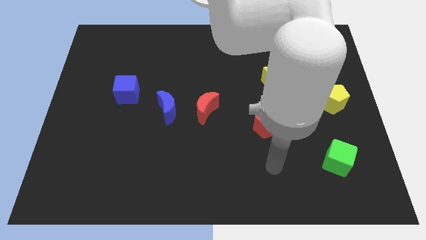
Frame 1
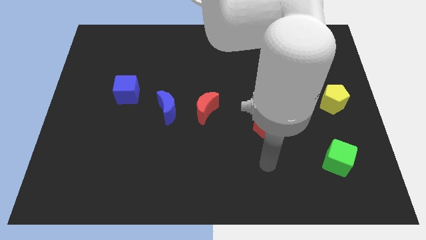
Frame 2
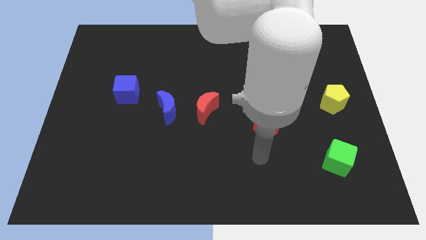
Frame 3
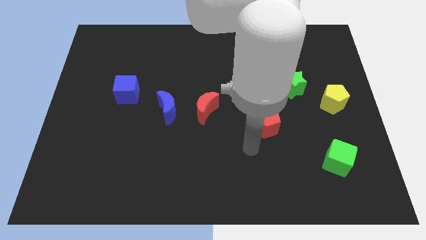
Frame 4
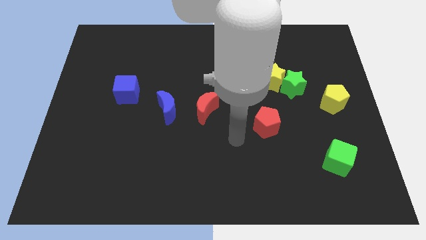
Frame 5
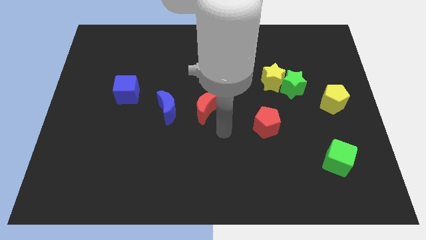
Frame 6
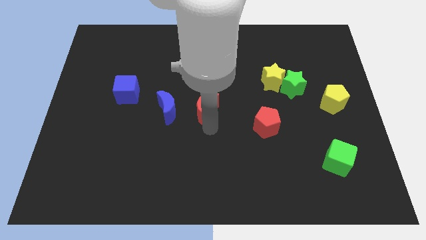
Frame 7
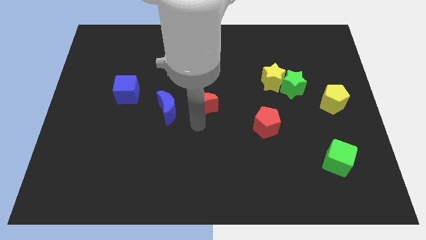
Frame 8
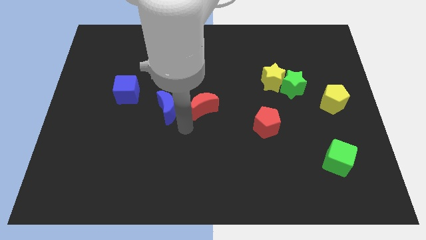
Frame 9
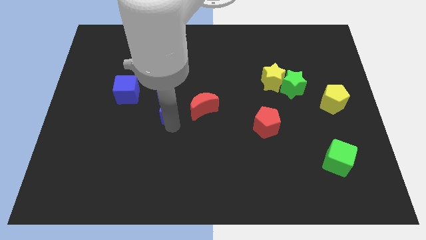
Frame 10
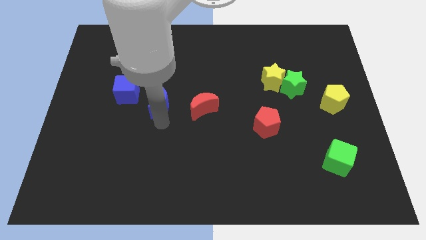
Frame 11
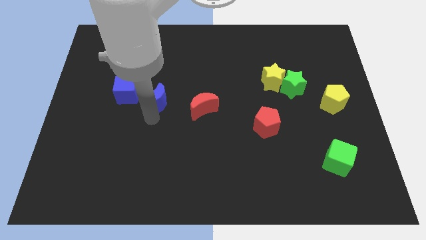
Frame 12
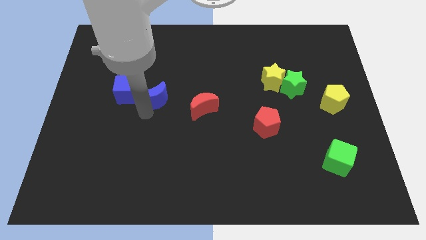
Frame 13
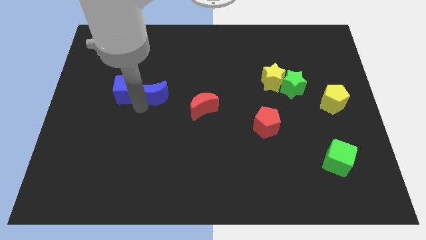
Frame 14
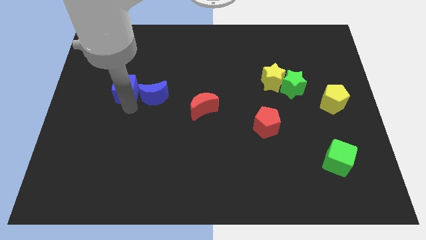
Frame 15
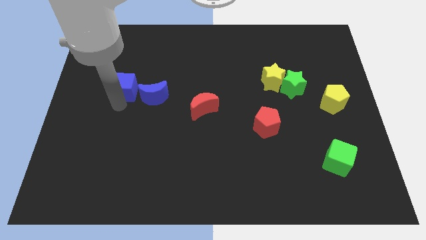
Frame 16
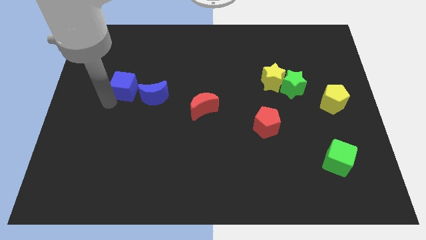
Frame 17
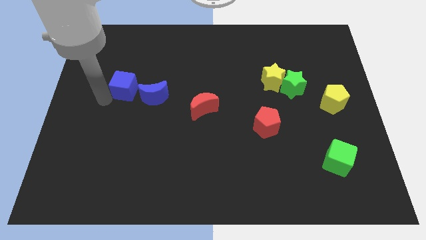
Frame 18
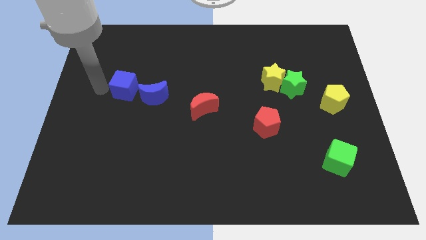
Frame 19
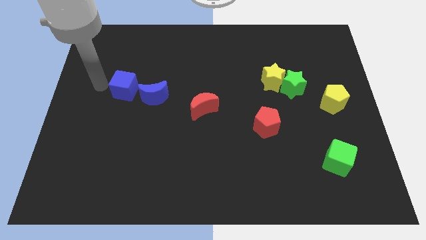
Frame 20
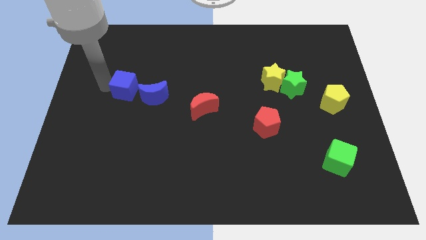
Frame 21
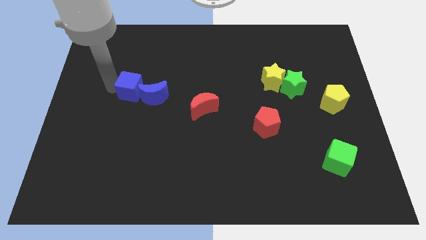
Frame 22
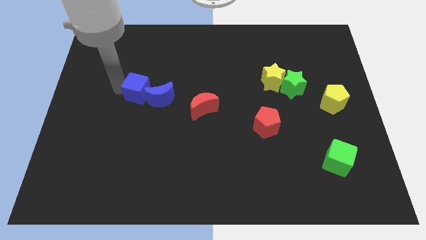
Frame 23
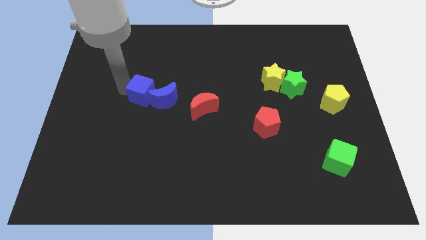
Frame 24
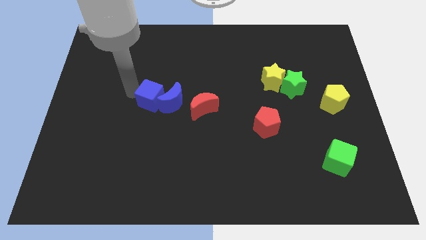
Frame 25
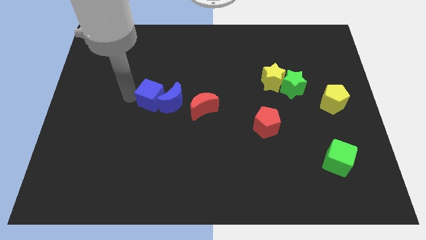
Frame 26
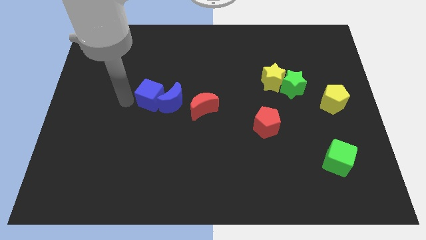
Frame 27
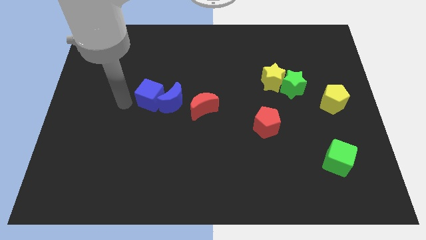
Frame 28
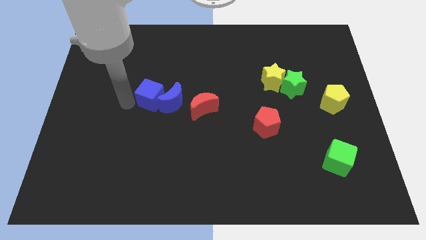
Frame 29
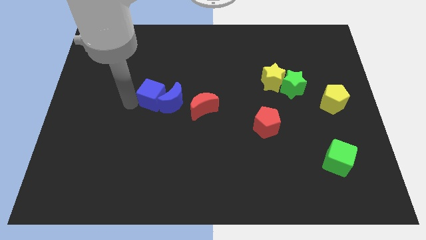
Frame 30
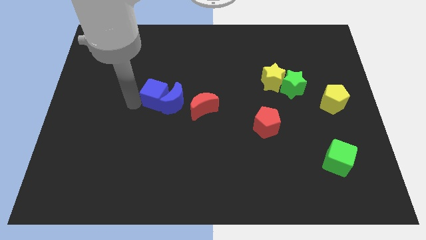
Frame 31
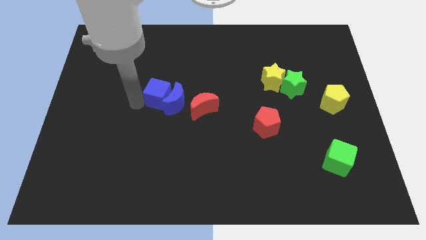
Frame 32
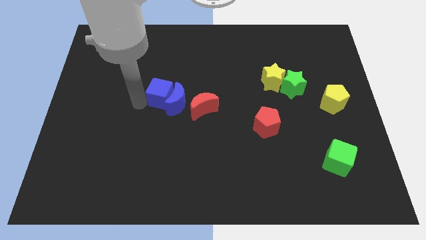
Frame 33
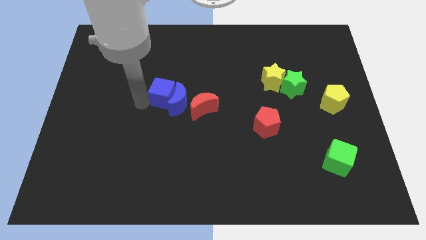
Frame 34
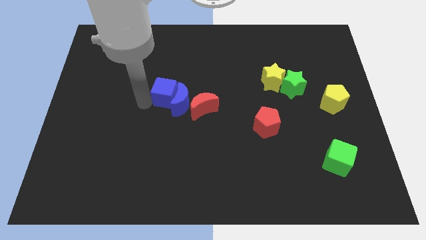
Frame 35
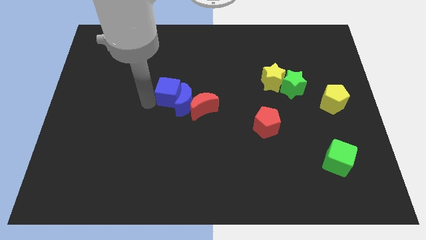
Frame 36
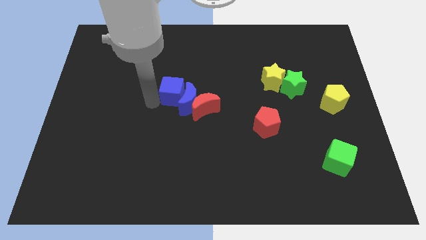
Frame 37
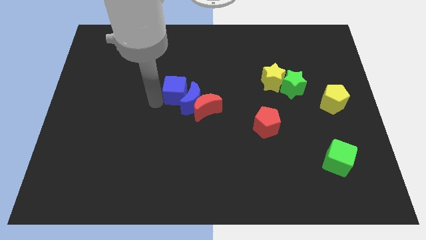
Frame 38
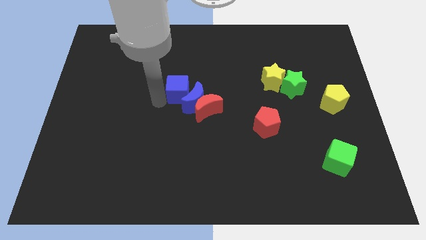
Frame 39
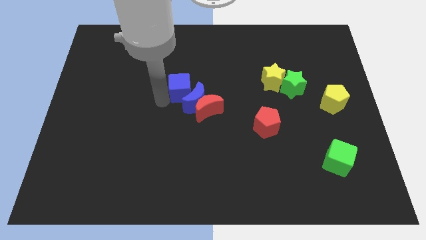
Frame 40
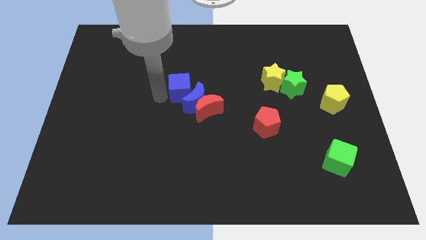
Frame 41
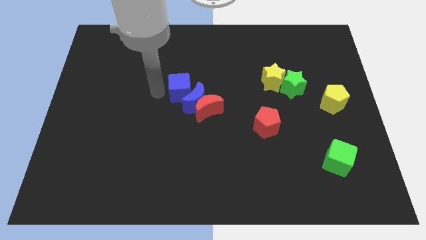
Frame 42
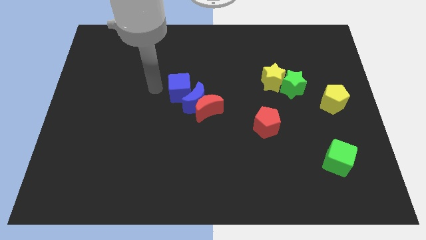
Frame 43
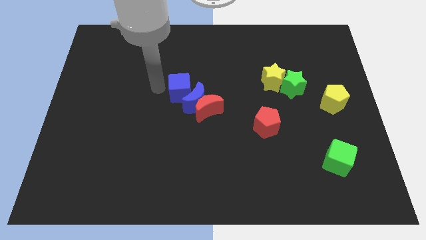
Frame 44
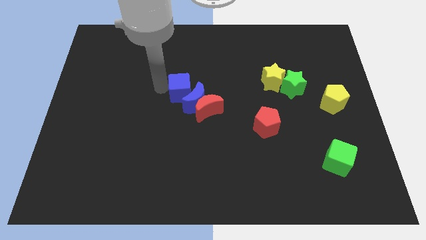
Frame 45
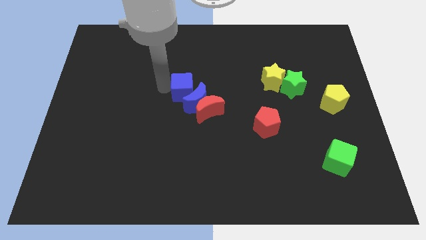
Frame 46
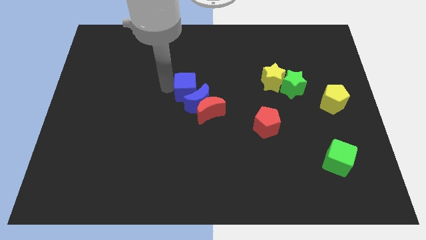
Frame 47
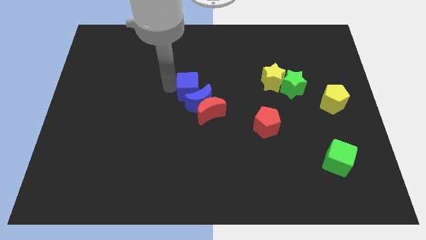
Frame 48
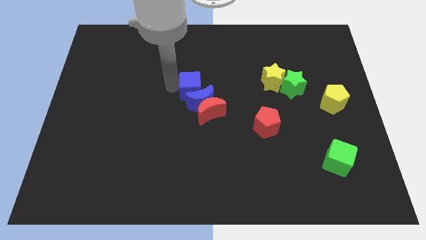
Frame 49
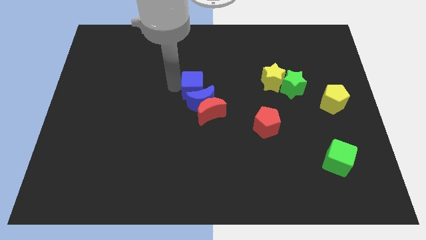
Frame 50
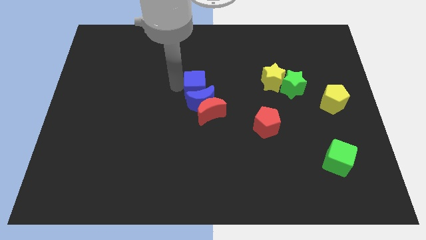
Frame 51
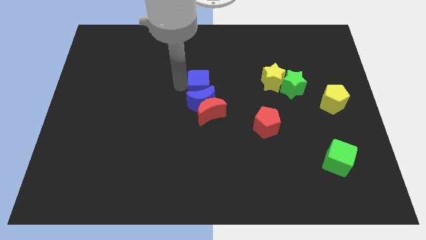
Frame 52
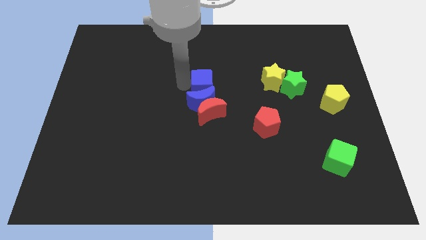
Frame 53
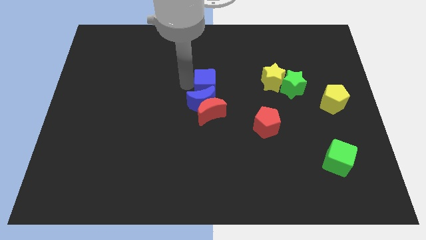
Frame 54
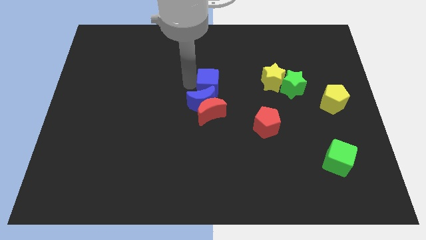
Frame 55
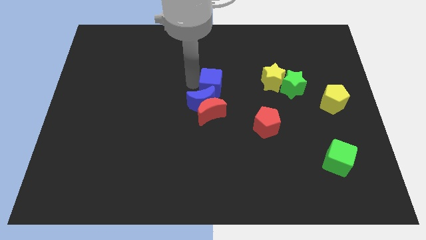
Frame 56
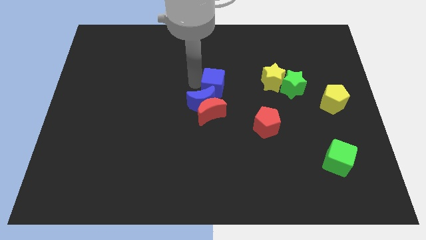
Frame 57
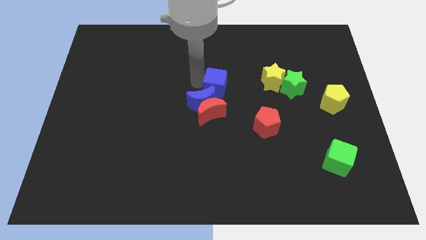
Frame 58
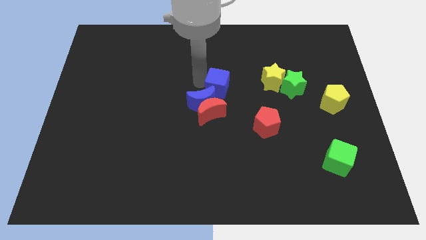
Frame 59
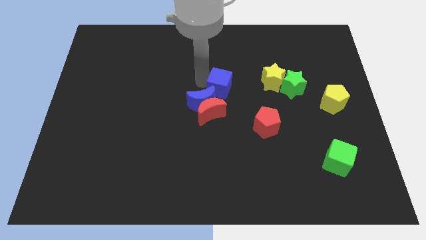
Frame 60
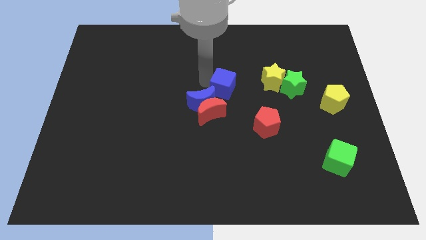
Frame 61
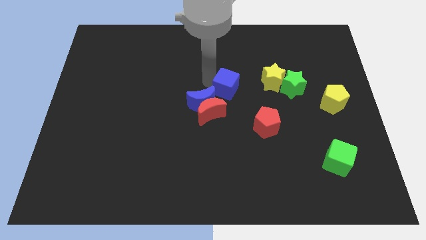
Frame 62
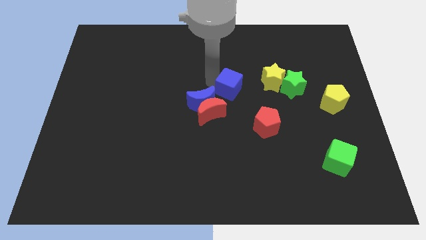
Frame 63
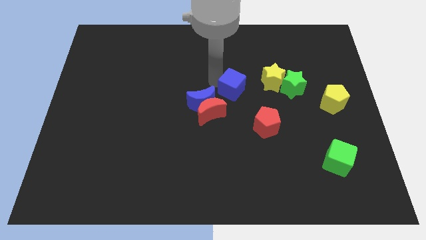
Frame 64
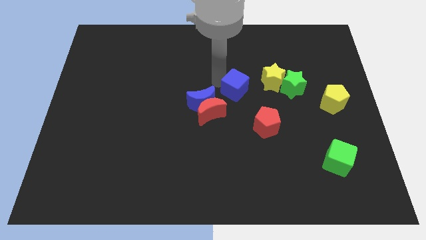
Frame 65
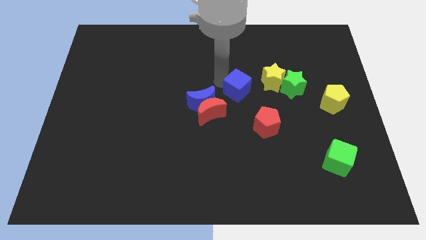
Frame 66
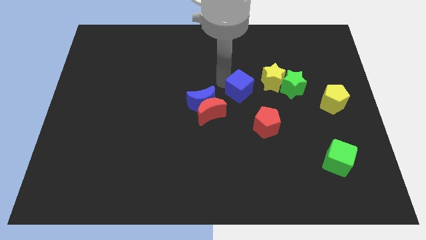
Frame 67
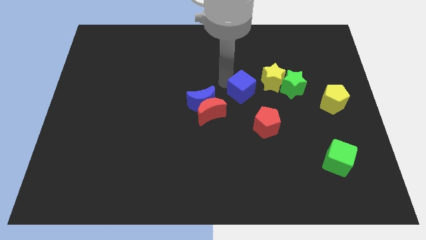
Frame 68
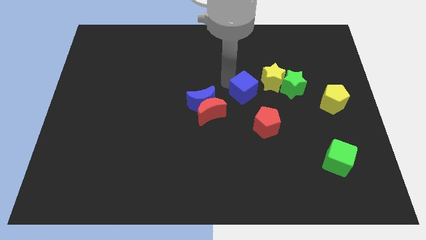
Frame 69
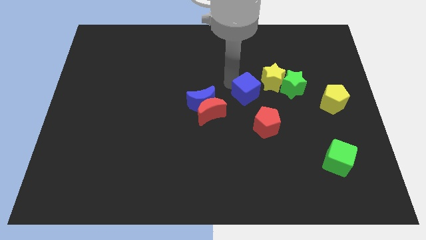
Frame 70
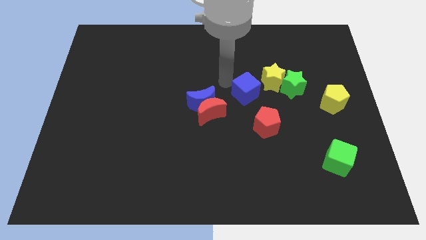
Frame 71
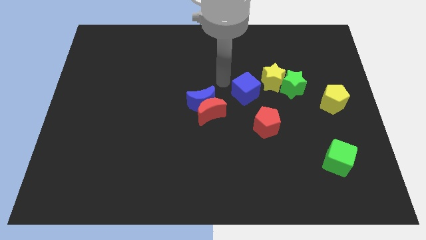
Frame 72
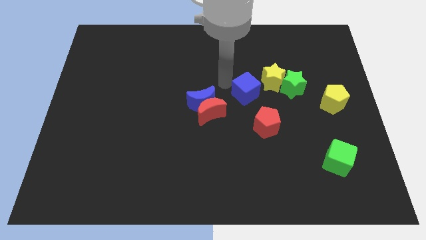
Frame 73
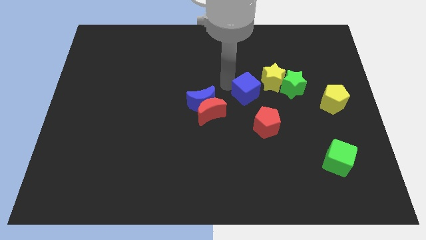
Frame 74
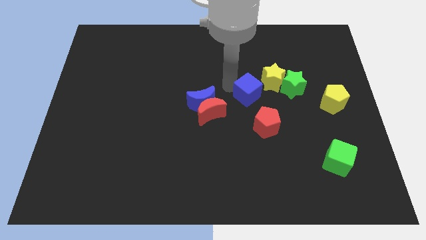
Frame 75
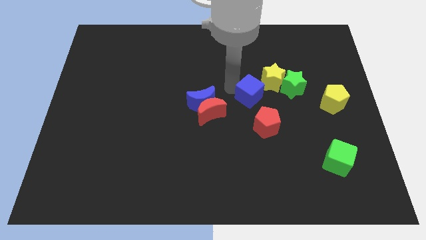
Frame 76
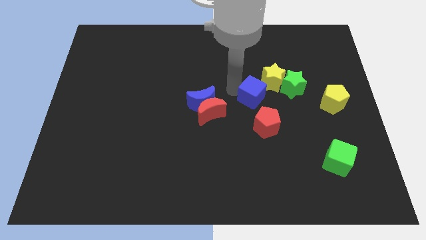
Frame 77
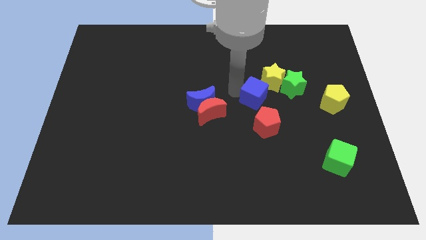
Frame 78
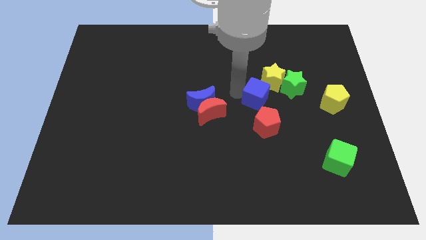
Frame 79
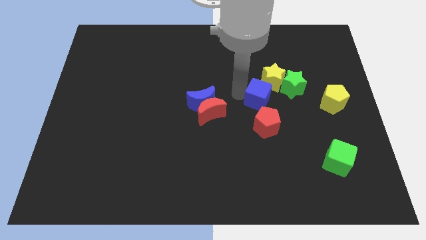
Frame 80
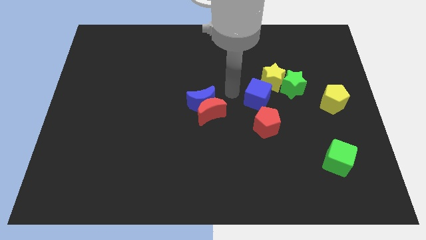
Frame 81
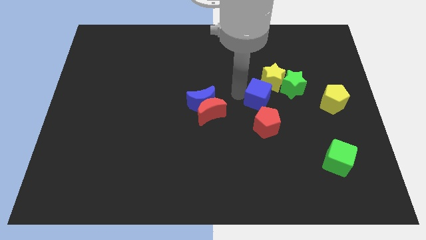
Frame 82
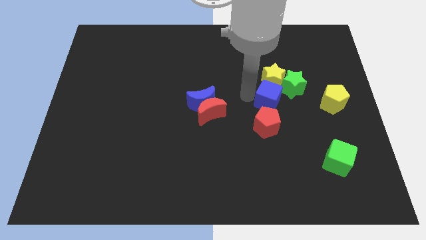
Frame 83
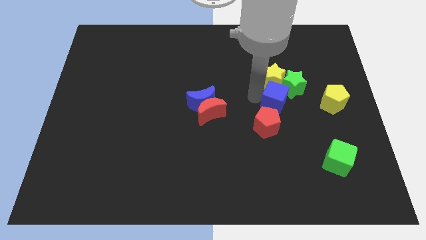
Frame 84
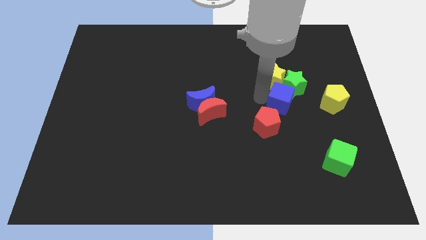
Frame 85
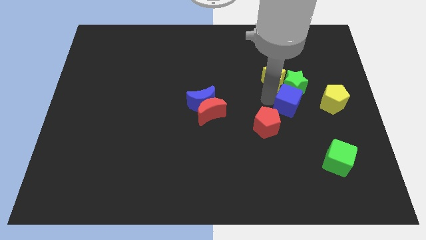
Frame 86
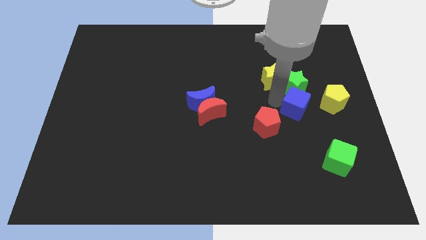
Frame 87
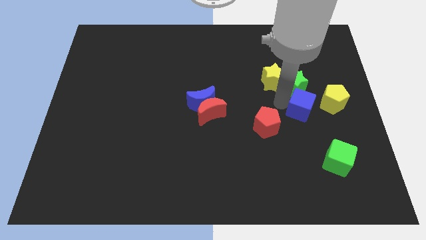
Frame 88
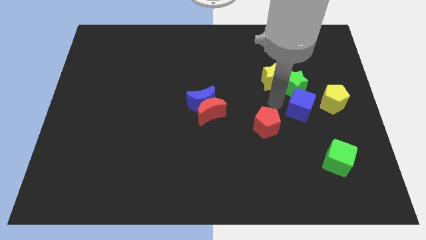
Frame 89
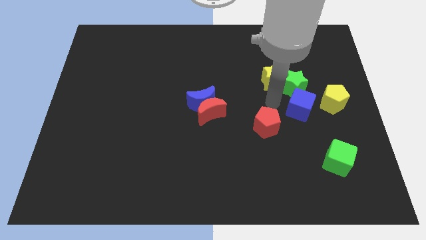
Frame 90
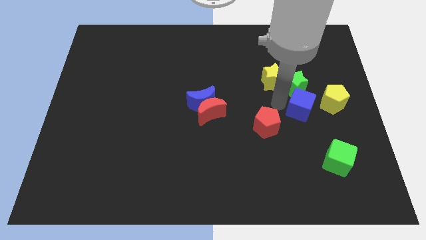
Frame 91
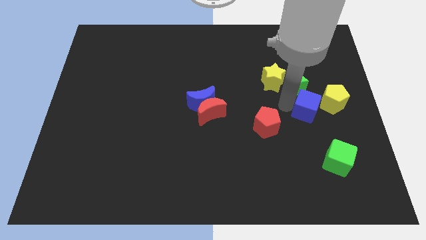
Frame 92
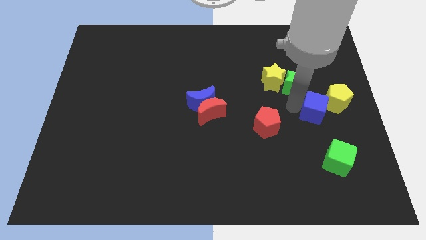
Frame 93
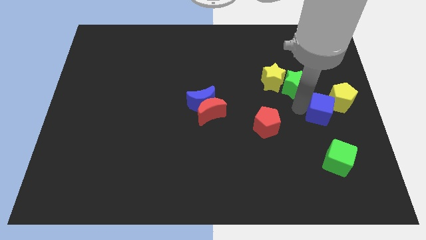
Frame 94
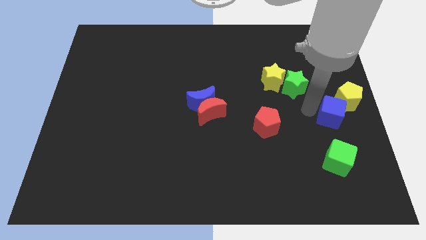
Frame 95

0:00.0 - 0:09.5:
push the blue cube to the right side of the board
